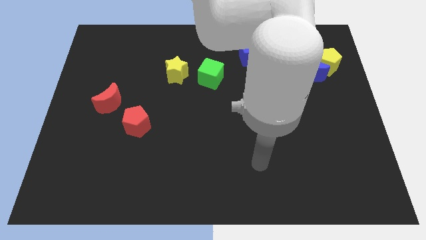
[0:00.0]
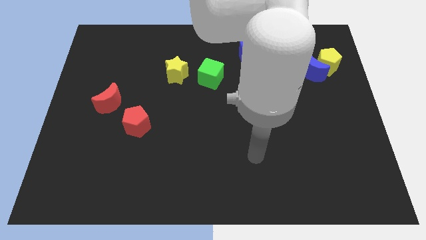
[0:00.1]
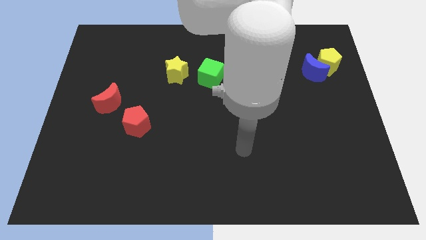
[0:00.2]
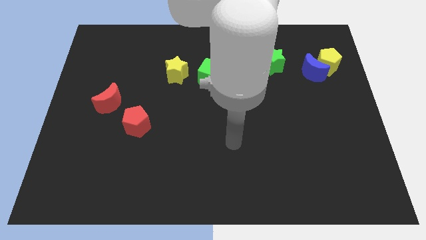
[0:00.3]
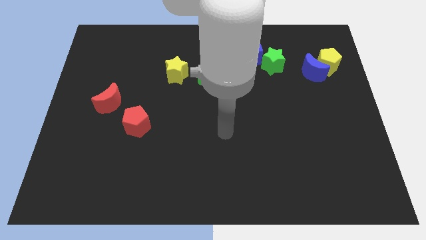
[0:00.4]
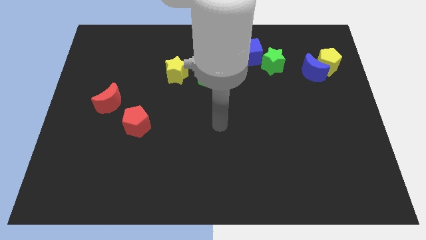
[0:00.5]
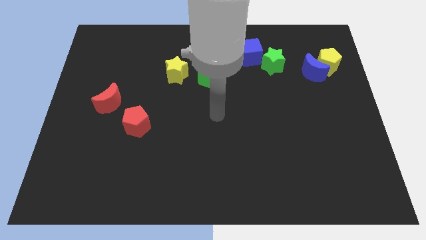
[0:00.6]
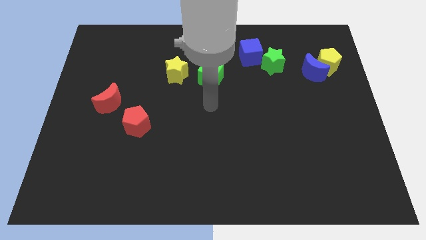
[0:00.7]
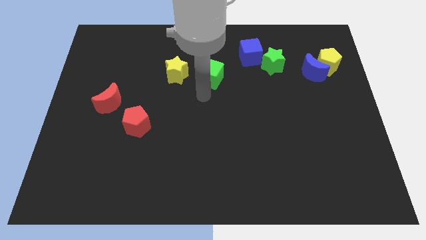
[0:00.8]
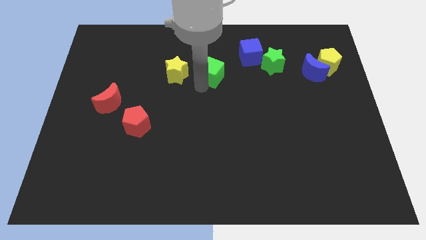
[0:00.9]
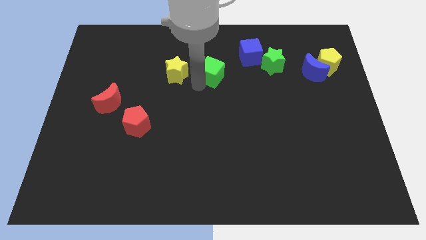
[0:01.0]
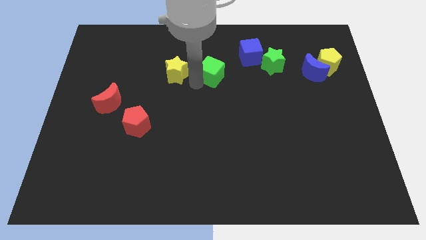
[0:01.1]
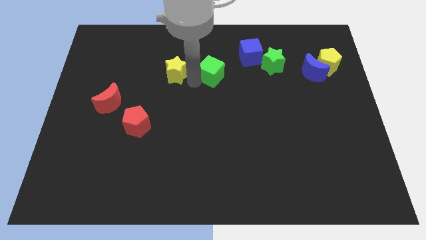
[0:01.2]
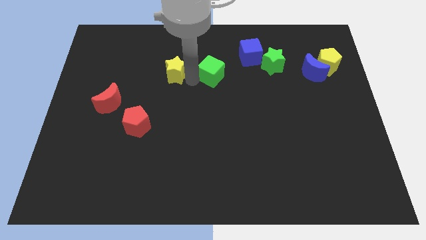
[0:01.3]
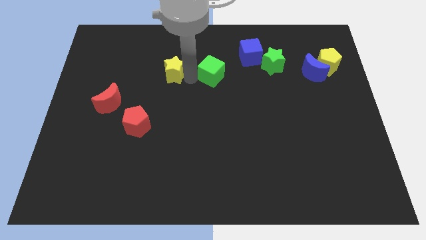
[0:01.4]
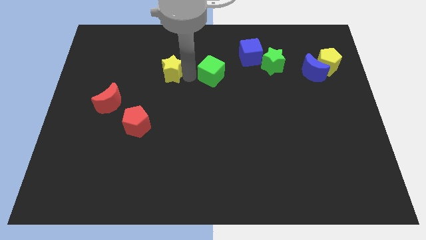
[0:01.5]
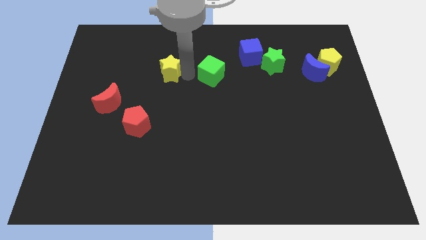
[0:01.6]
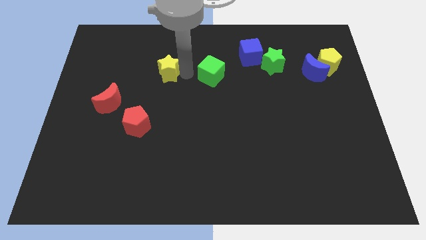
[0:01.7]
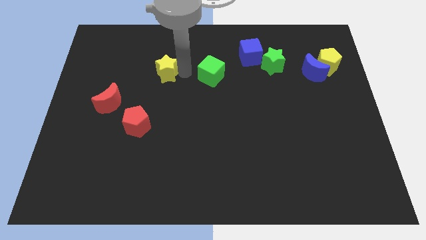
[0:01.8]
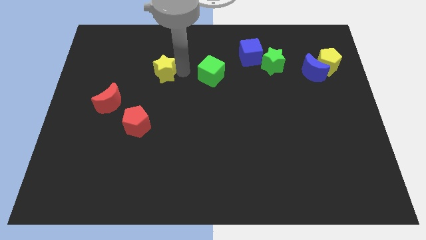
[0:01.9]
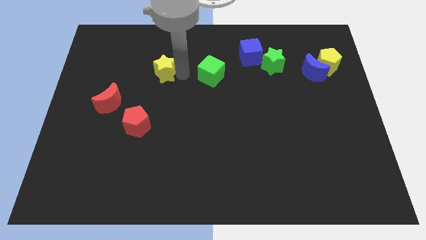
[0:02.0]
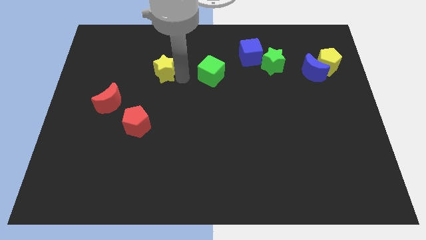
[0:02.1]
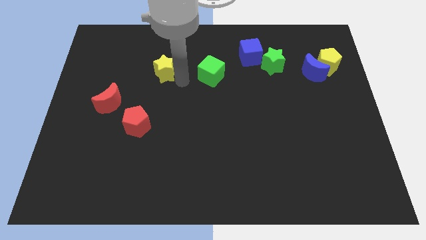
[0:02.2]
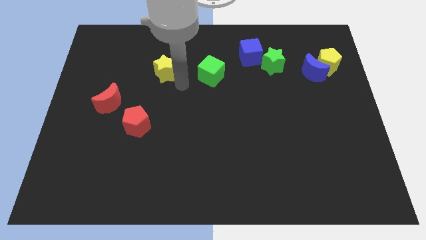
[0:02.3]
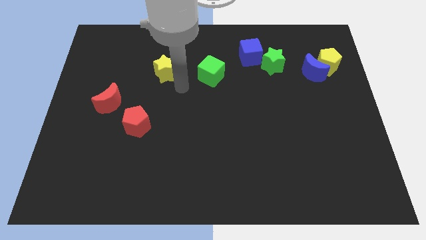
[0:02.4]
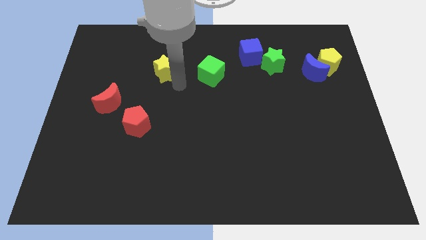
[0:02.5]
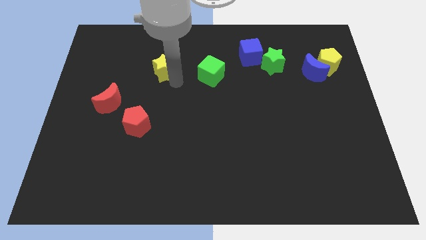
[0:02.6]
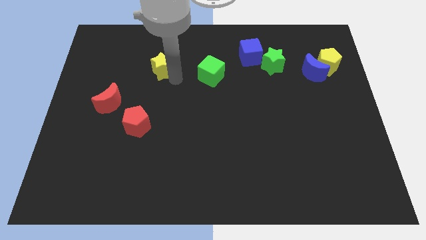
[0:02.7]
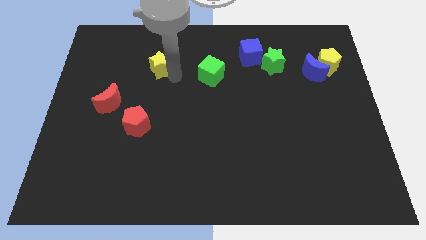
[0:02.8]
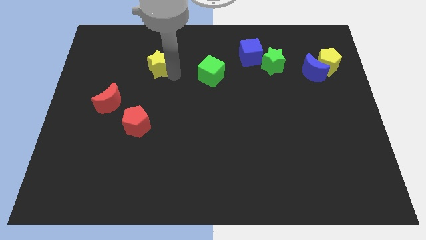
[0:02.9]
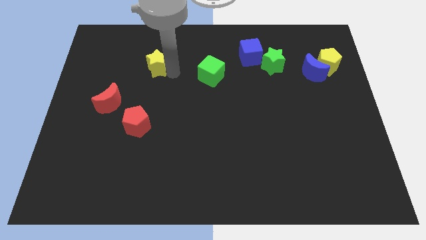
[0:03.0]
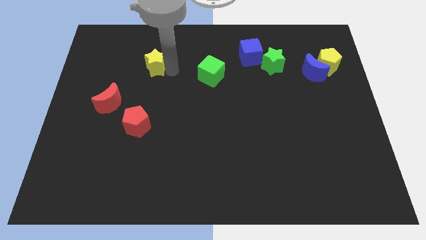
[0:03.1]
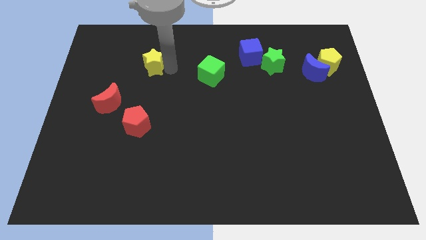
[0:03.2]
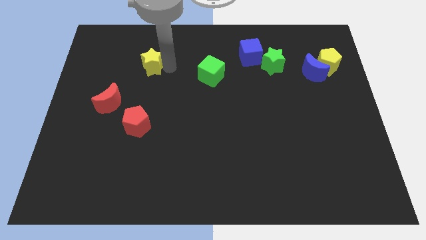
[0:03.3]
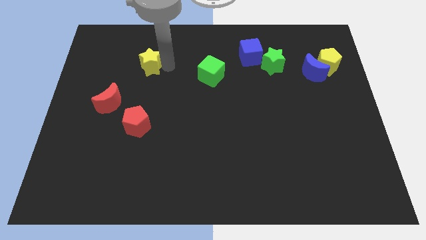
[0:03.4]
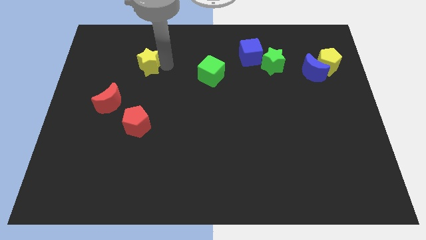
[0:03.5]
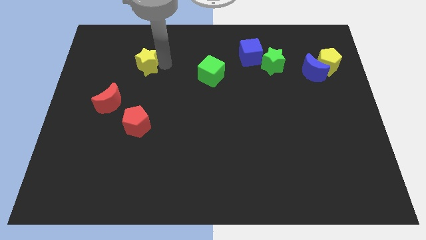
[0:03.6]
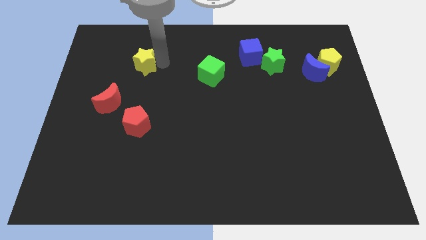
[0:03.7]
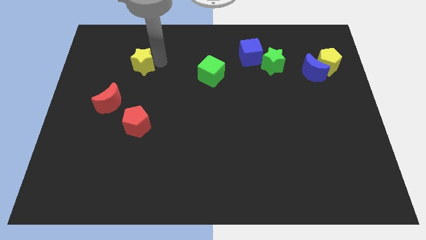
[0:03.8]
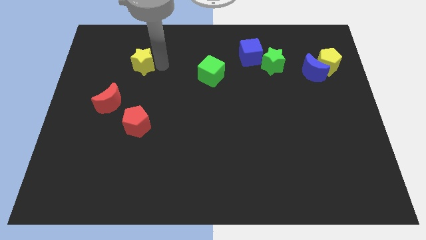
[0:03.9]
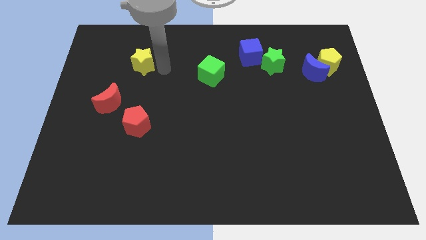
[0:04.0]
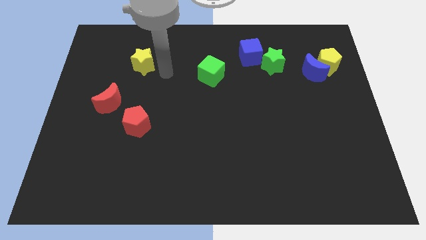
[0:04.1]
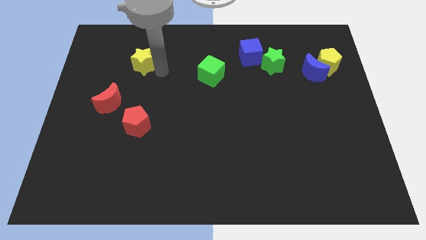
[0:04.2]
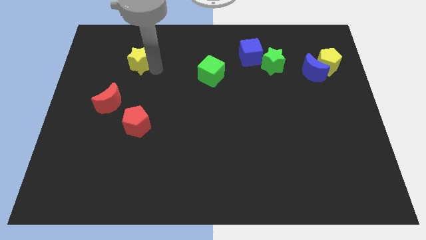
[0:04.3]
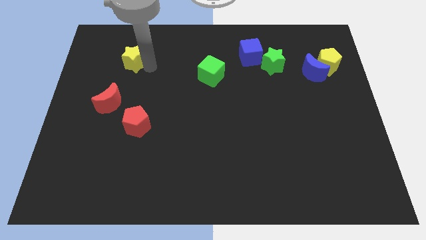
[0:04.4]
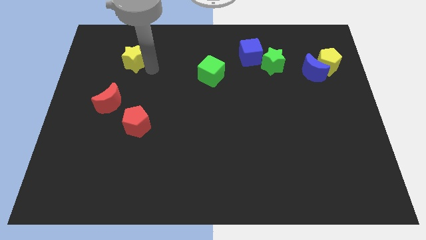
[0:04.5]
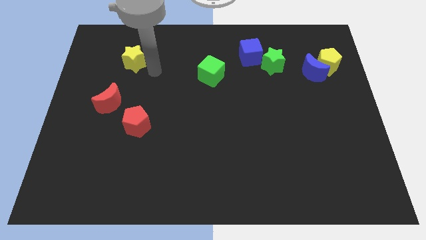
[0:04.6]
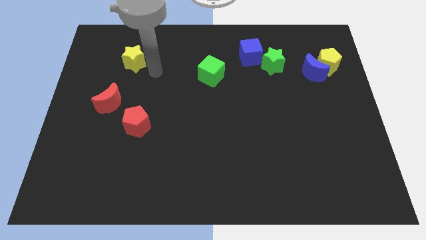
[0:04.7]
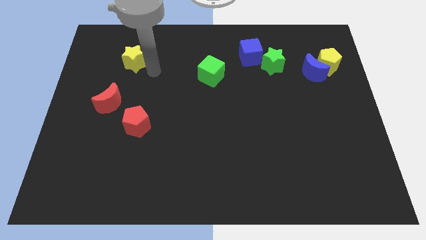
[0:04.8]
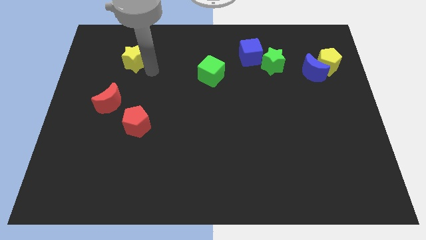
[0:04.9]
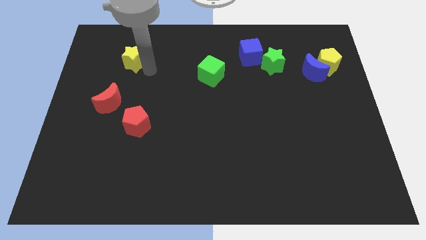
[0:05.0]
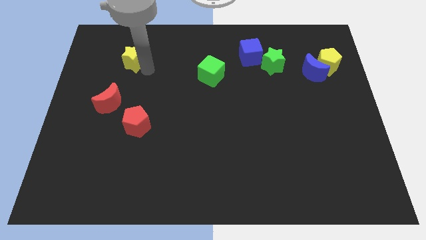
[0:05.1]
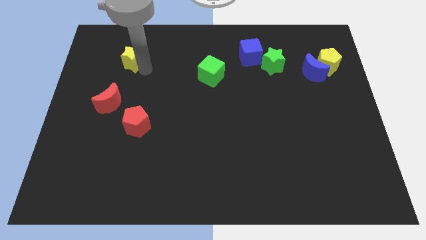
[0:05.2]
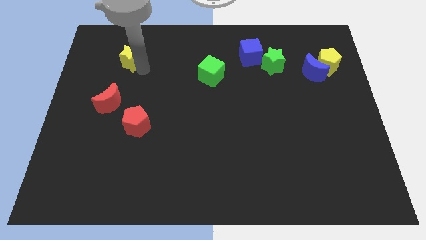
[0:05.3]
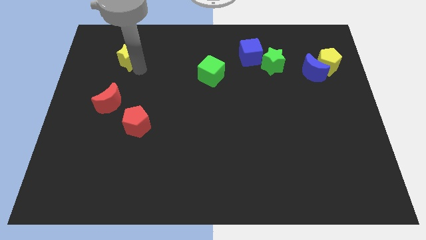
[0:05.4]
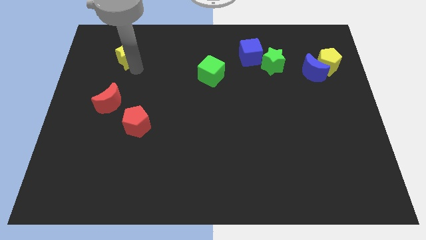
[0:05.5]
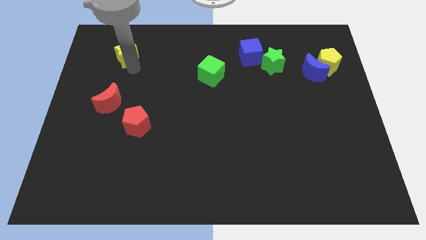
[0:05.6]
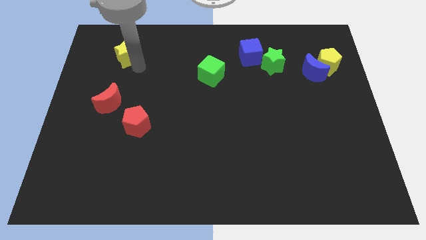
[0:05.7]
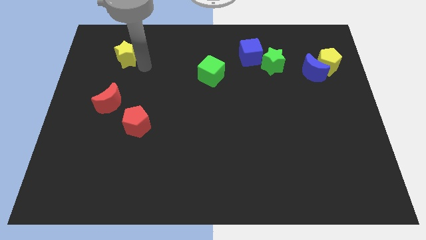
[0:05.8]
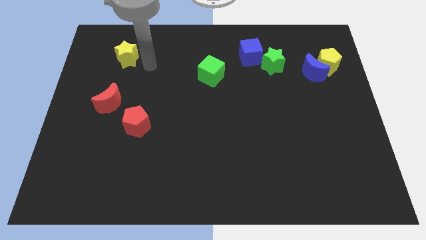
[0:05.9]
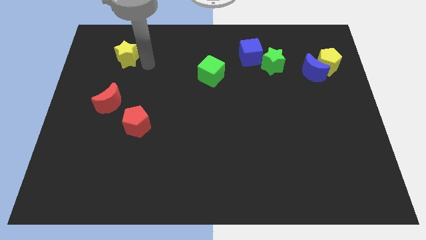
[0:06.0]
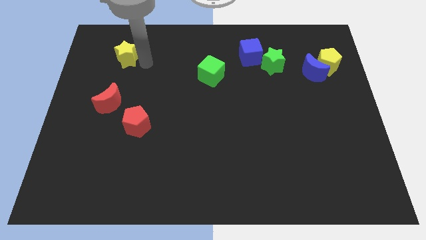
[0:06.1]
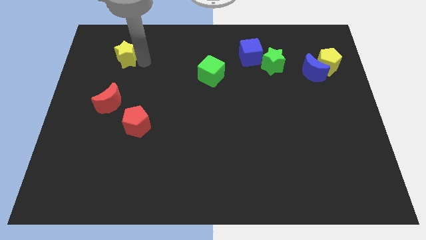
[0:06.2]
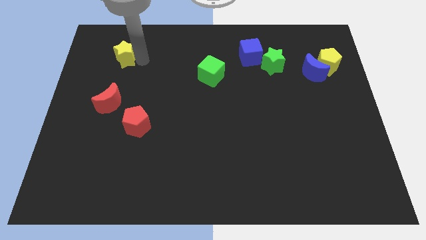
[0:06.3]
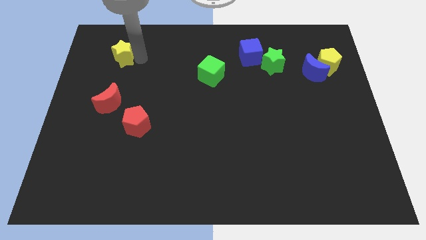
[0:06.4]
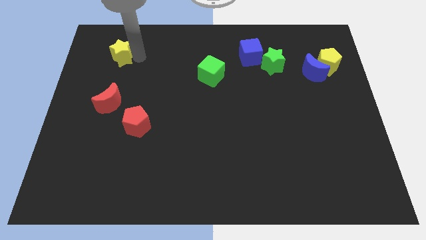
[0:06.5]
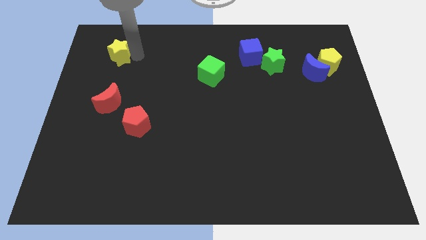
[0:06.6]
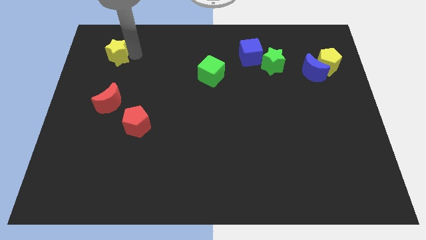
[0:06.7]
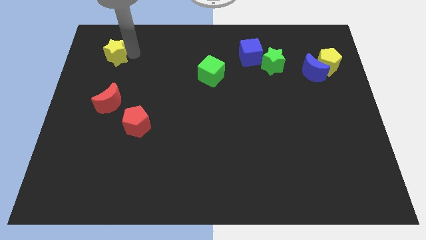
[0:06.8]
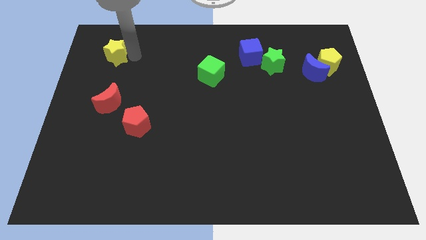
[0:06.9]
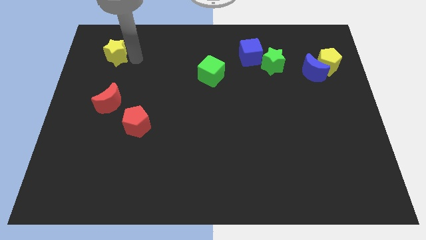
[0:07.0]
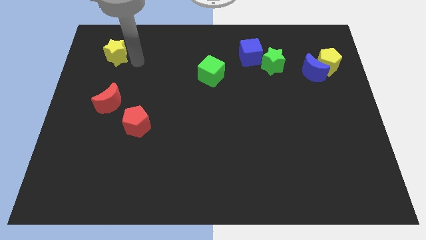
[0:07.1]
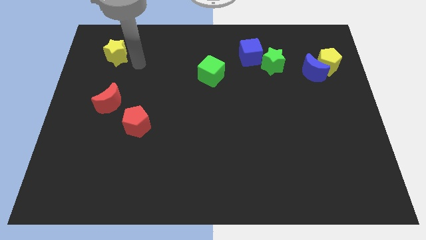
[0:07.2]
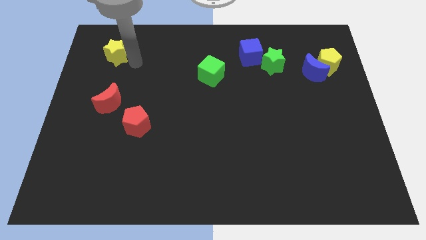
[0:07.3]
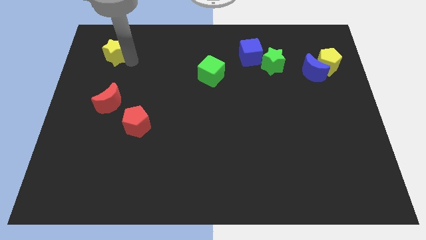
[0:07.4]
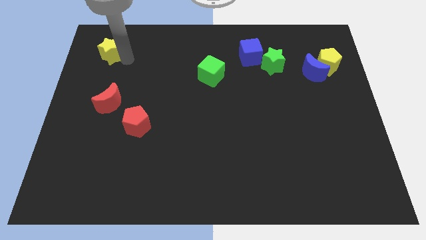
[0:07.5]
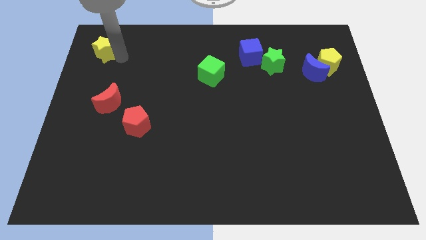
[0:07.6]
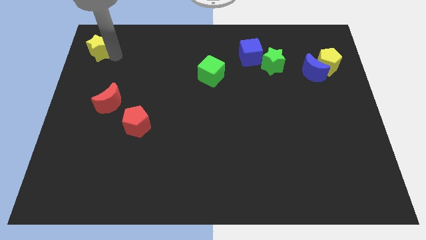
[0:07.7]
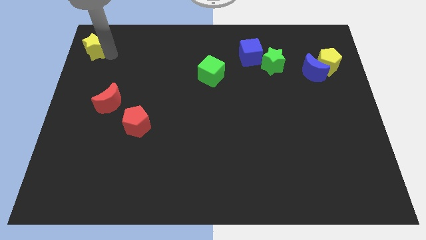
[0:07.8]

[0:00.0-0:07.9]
push the yellow star to the top left of the board
